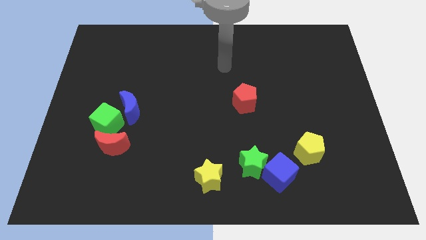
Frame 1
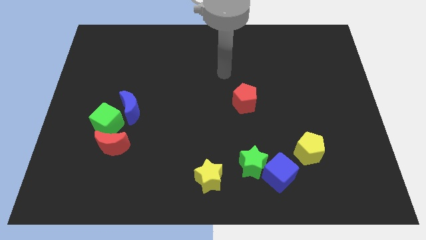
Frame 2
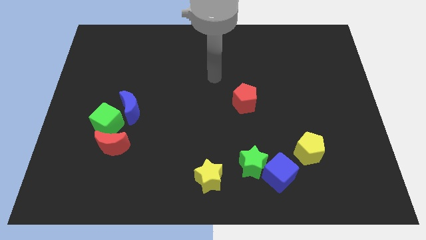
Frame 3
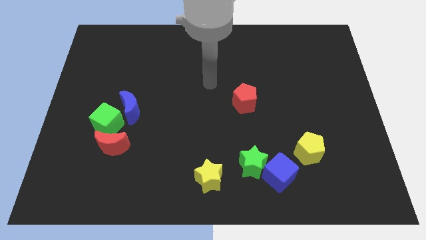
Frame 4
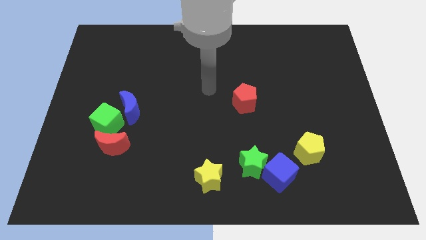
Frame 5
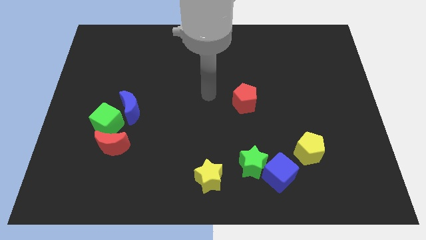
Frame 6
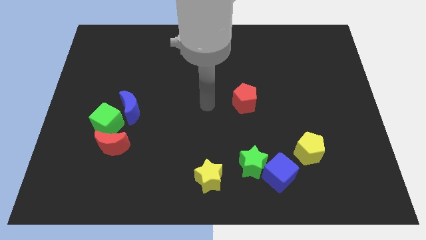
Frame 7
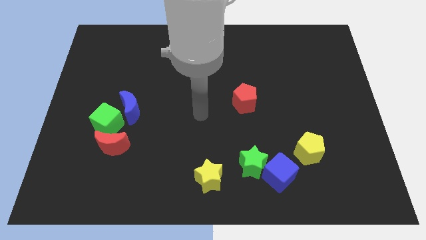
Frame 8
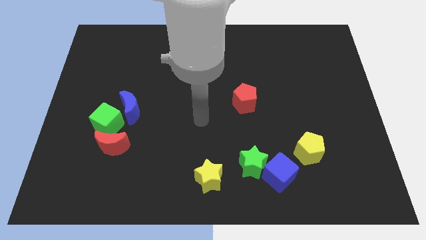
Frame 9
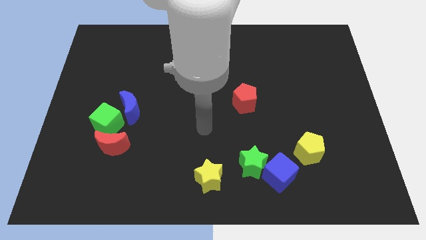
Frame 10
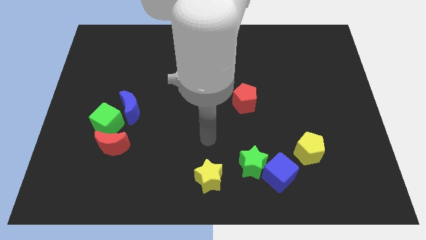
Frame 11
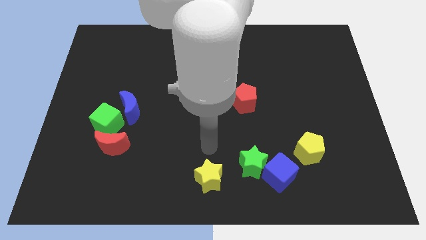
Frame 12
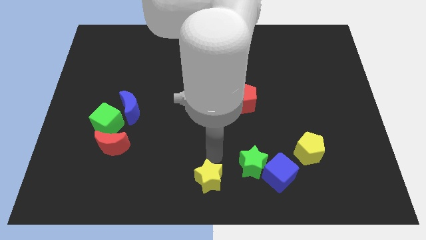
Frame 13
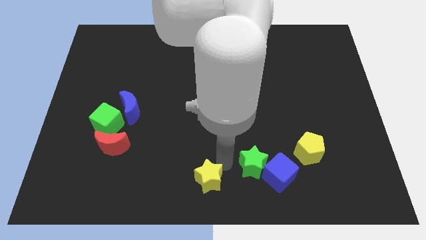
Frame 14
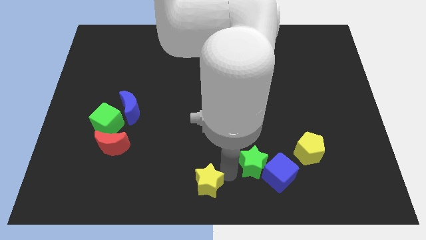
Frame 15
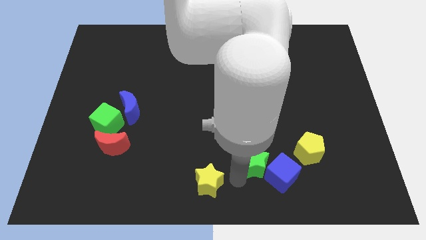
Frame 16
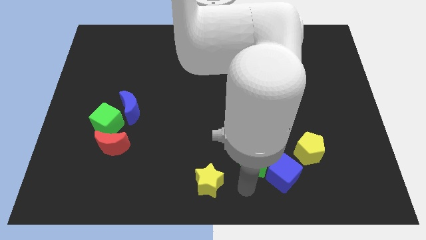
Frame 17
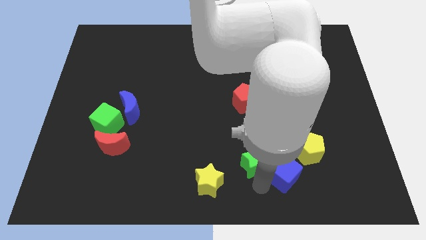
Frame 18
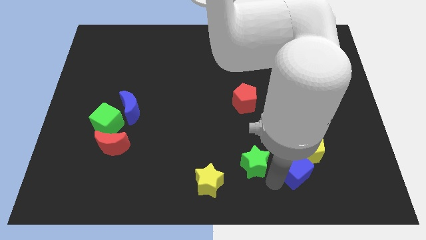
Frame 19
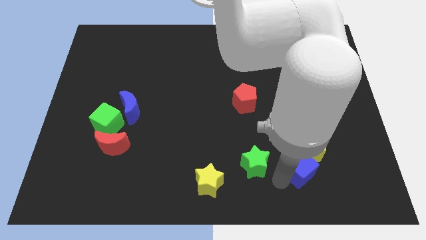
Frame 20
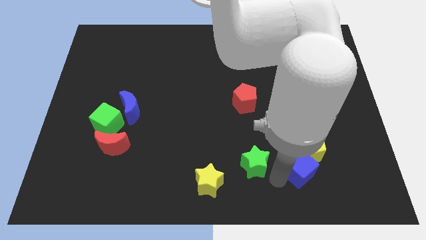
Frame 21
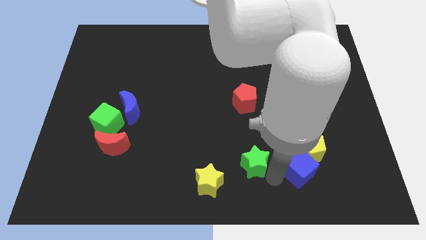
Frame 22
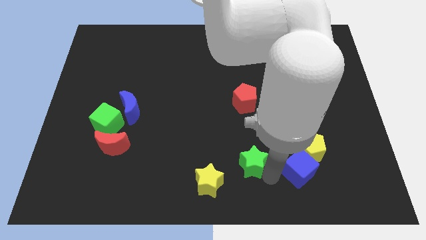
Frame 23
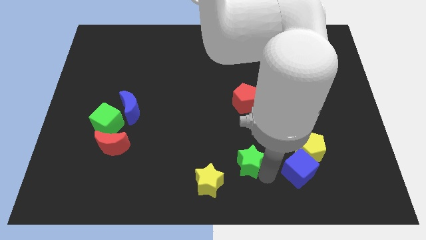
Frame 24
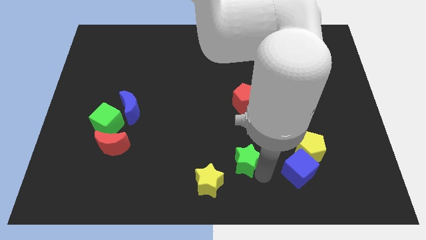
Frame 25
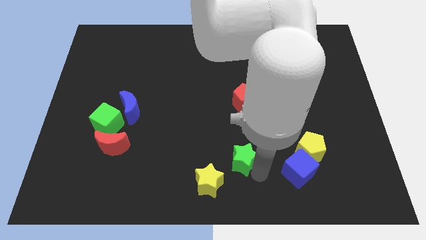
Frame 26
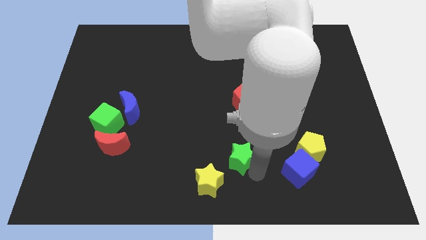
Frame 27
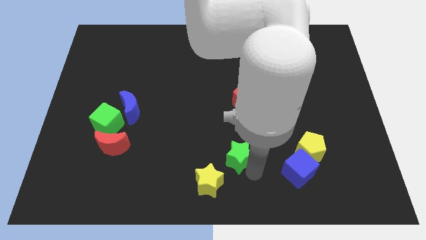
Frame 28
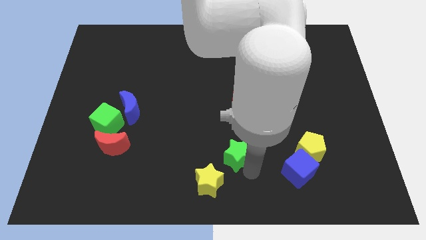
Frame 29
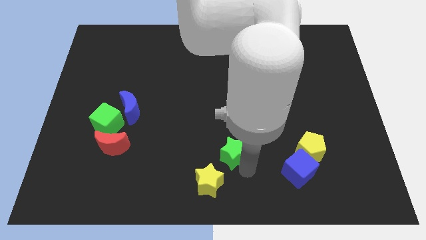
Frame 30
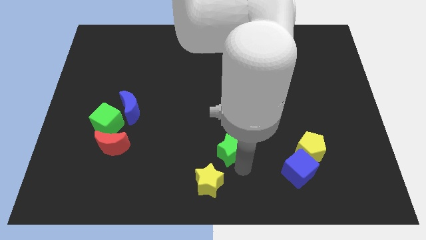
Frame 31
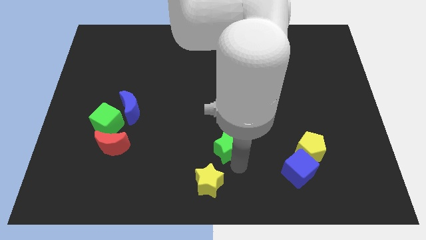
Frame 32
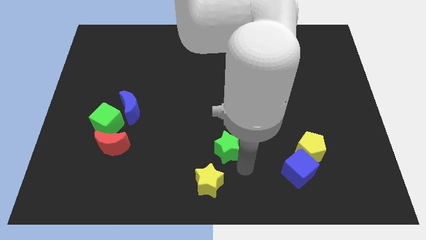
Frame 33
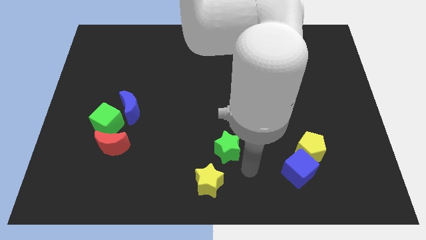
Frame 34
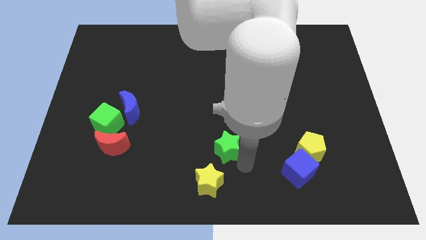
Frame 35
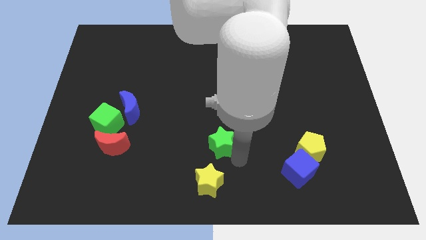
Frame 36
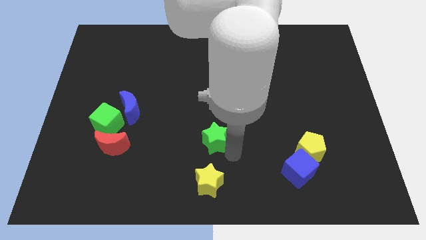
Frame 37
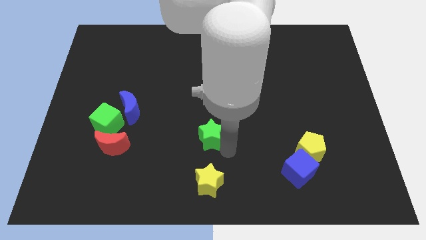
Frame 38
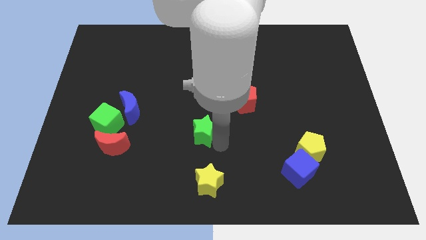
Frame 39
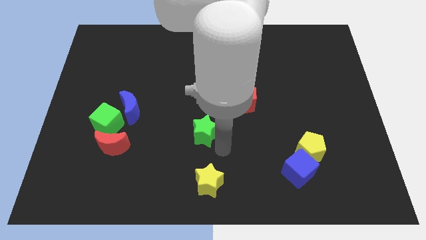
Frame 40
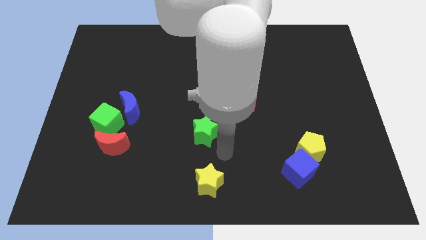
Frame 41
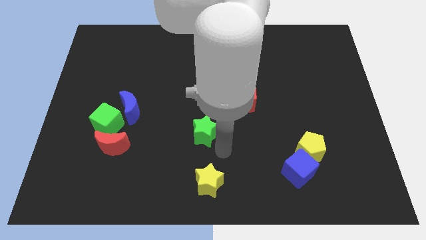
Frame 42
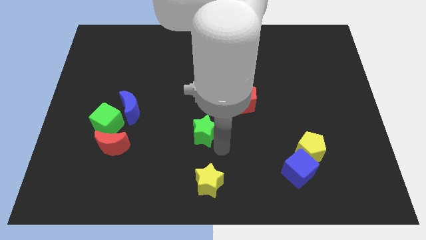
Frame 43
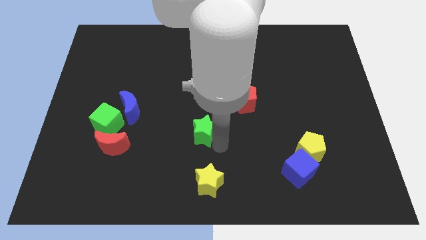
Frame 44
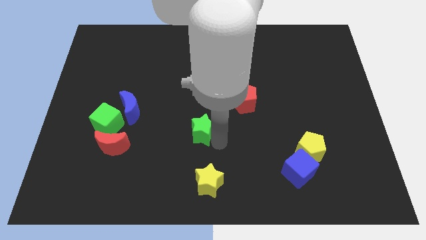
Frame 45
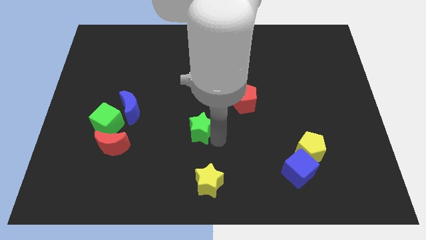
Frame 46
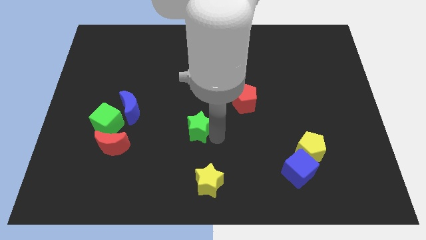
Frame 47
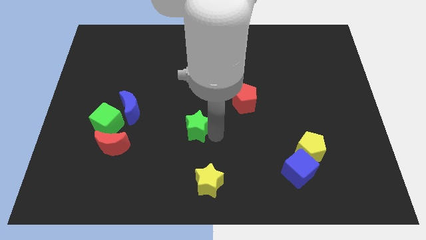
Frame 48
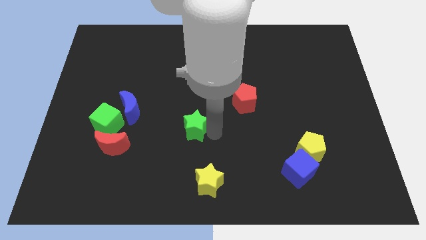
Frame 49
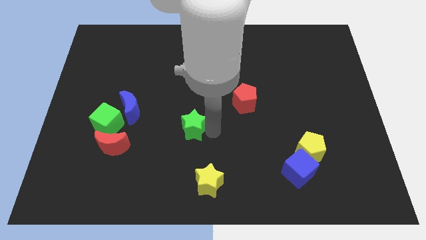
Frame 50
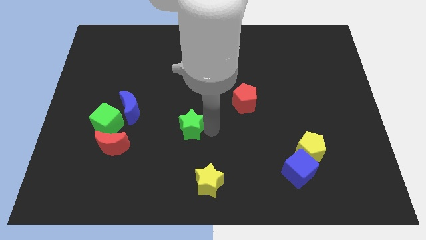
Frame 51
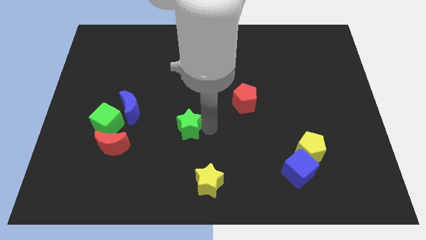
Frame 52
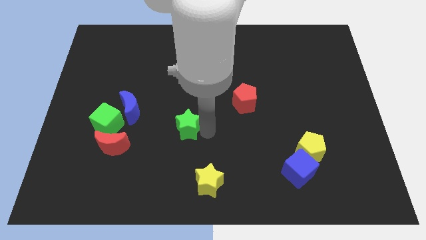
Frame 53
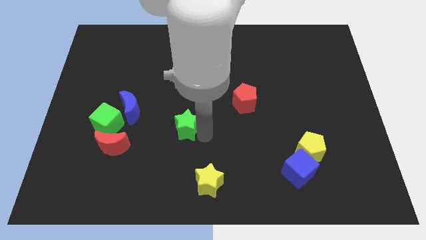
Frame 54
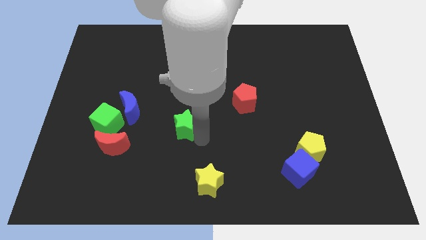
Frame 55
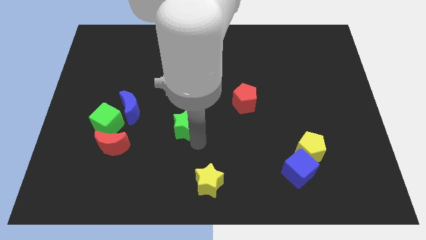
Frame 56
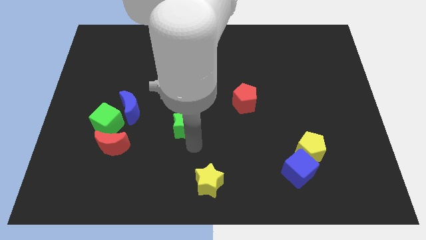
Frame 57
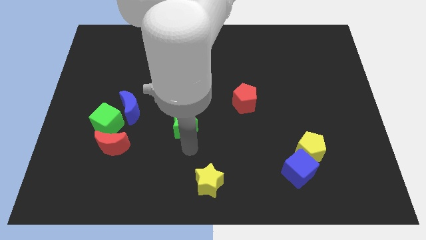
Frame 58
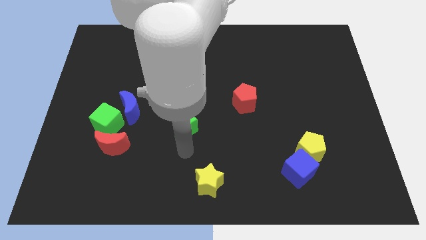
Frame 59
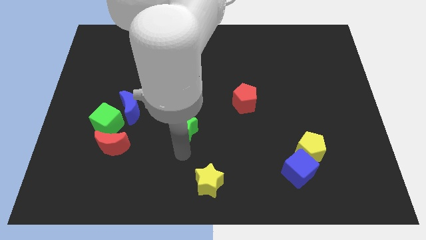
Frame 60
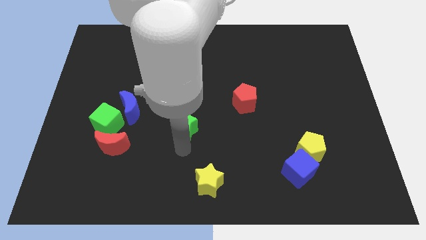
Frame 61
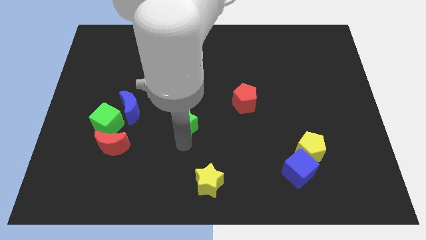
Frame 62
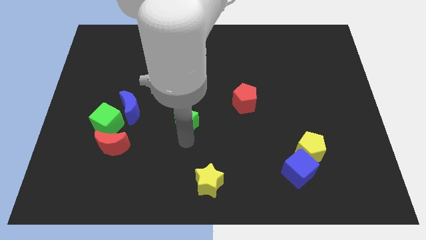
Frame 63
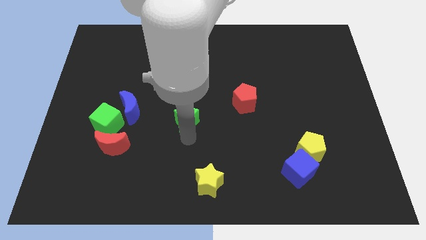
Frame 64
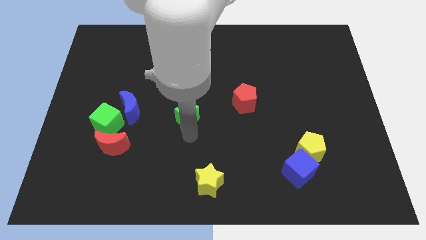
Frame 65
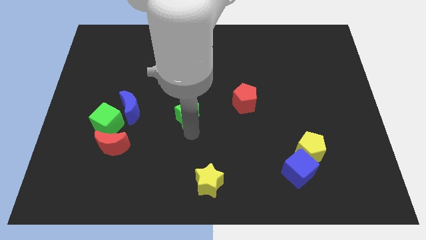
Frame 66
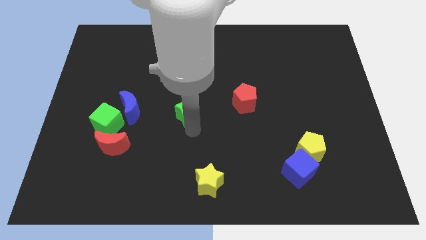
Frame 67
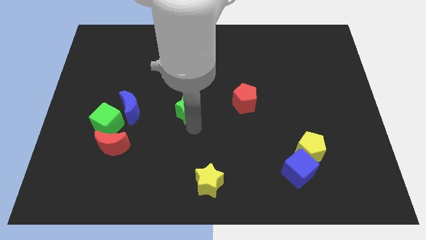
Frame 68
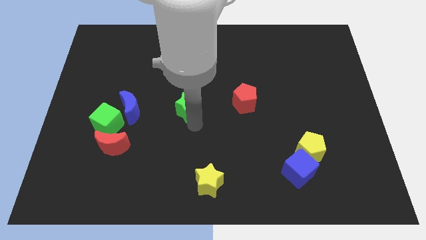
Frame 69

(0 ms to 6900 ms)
move the green star diagonally upwards and to the left

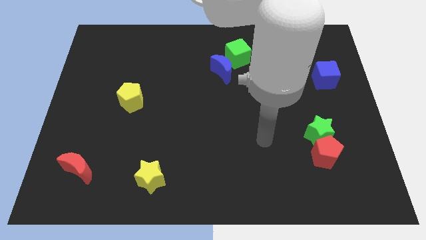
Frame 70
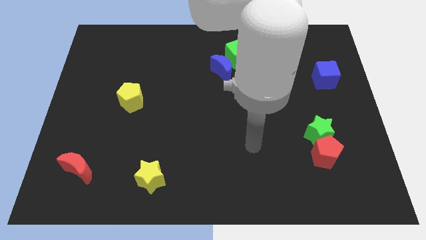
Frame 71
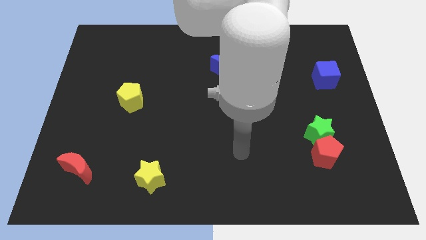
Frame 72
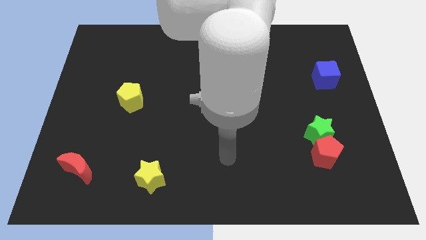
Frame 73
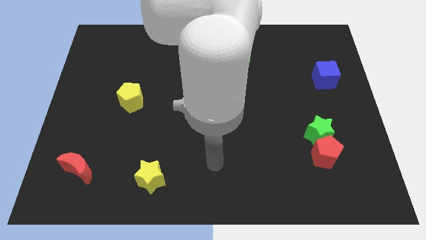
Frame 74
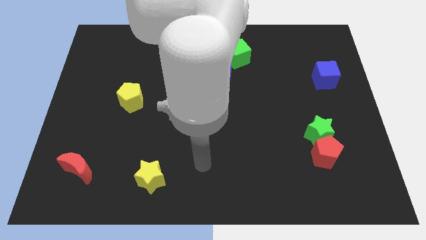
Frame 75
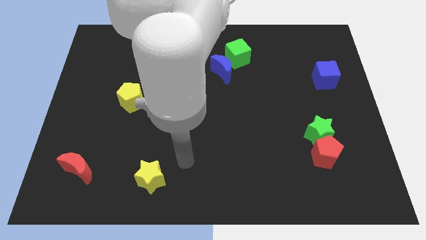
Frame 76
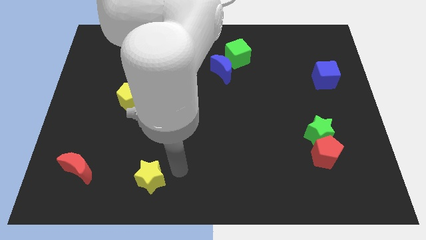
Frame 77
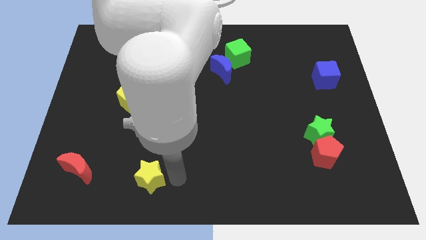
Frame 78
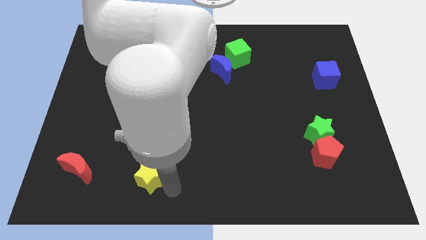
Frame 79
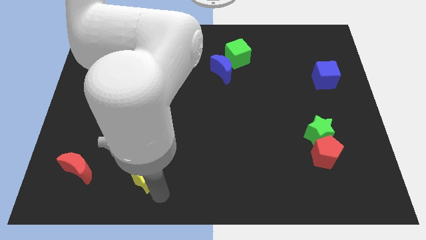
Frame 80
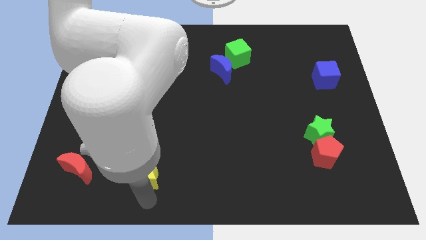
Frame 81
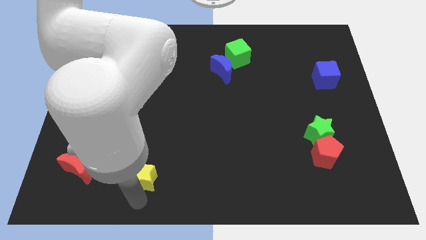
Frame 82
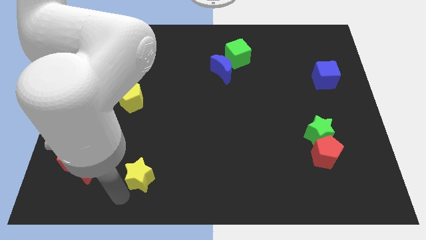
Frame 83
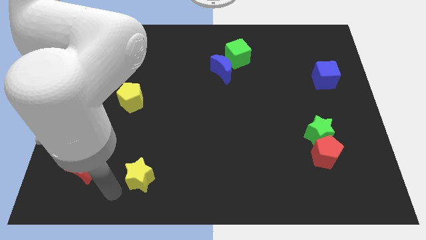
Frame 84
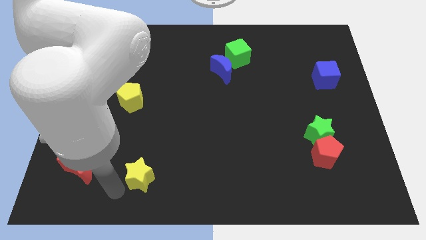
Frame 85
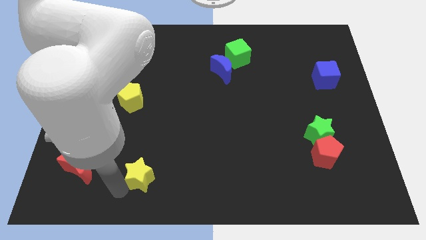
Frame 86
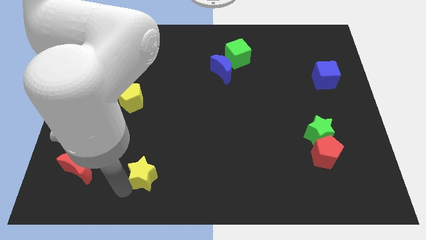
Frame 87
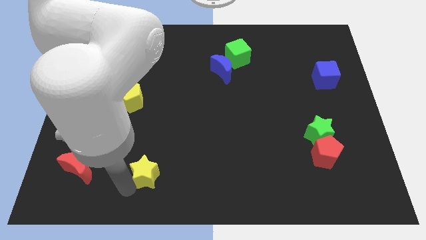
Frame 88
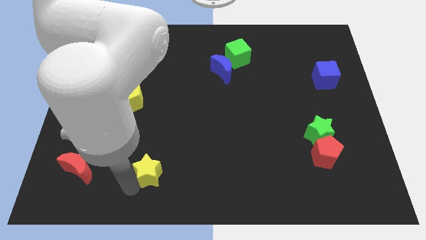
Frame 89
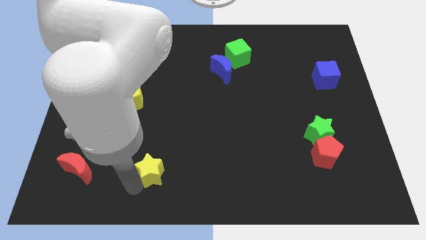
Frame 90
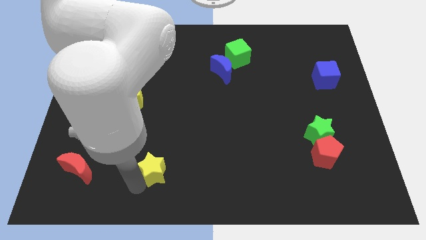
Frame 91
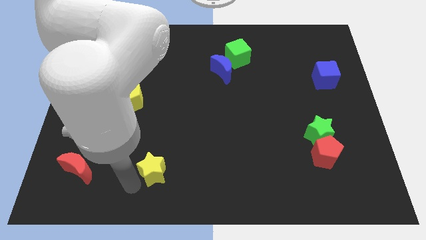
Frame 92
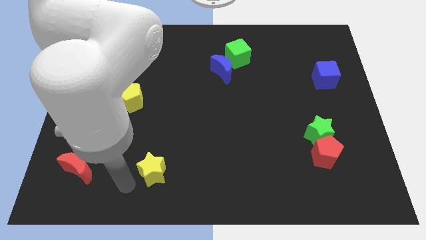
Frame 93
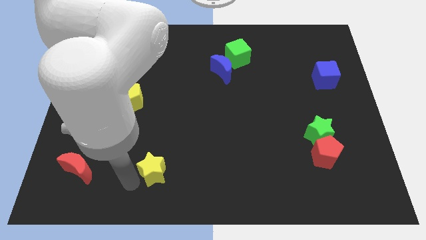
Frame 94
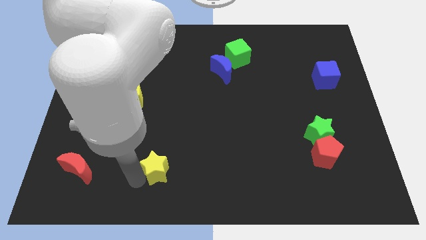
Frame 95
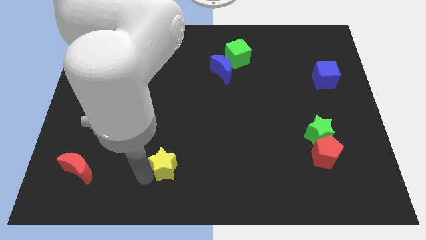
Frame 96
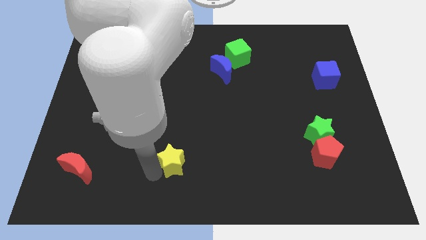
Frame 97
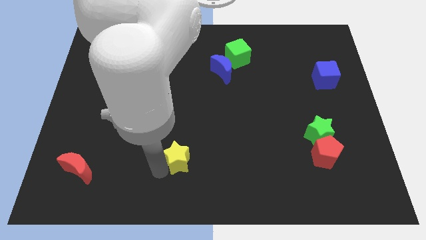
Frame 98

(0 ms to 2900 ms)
slightly move the yellow star upwards and to the right diagonally
